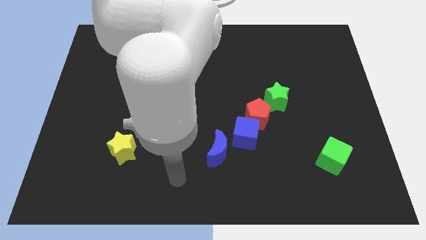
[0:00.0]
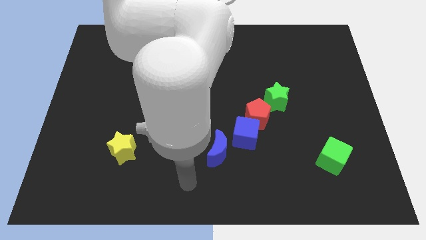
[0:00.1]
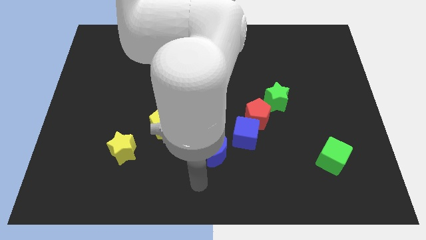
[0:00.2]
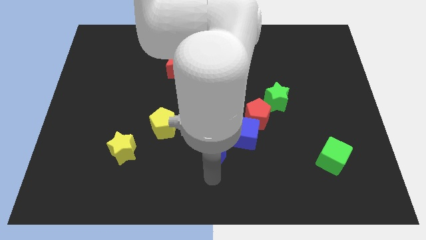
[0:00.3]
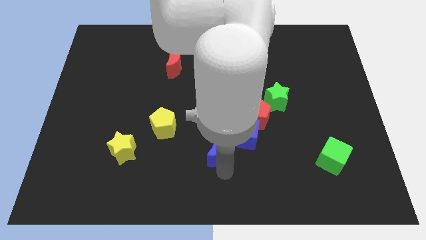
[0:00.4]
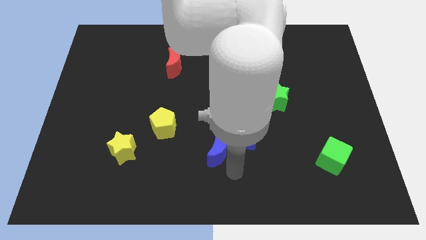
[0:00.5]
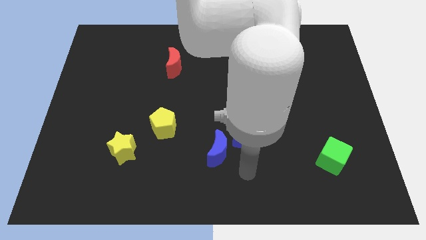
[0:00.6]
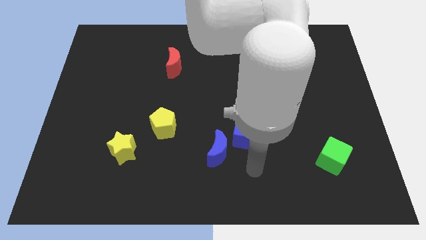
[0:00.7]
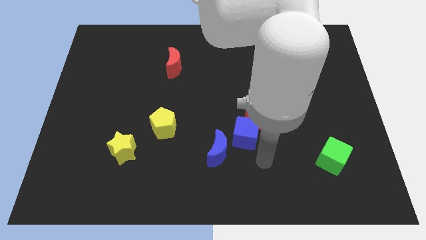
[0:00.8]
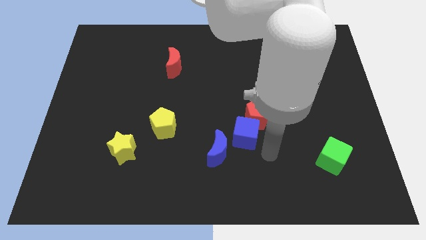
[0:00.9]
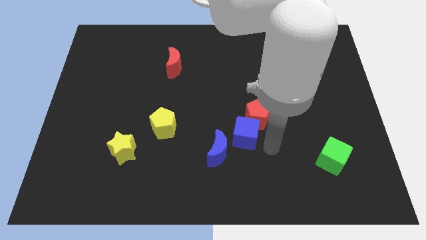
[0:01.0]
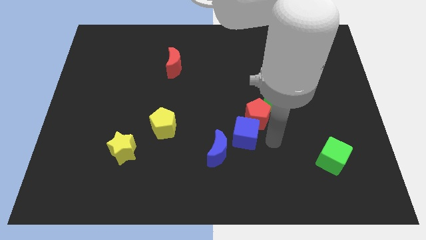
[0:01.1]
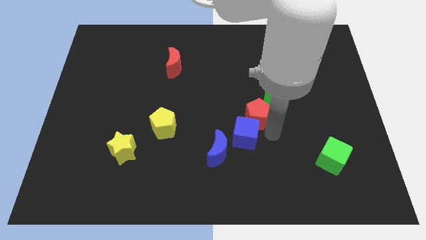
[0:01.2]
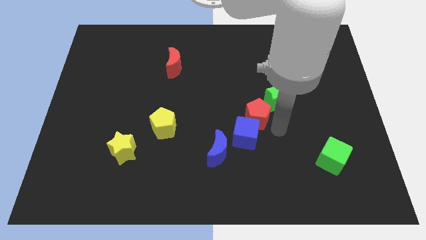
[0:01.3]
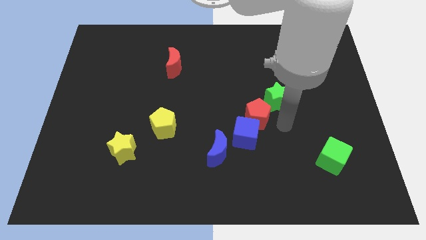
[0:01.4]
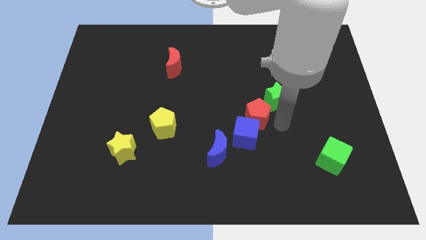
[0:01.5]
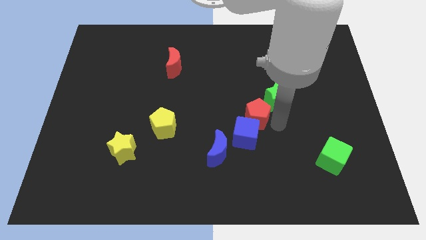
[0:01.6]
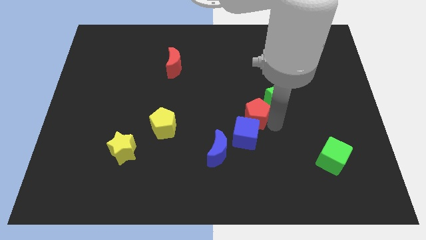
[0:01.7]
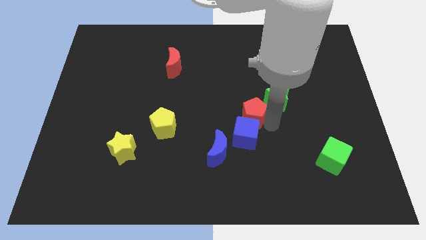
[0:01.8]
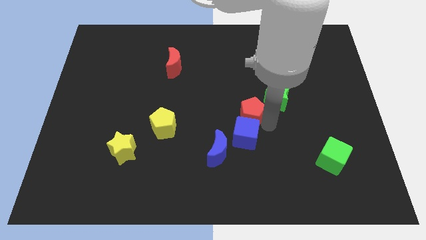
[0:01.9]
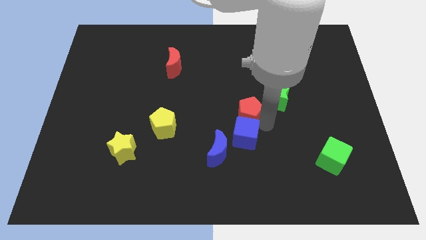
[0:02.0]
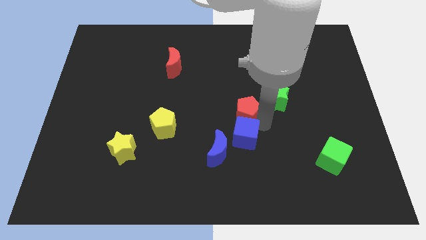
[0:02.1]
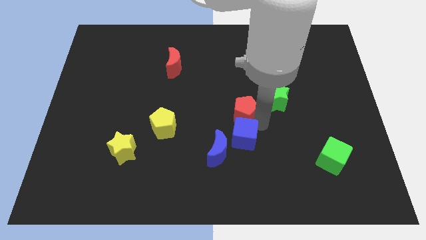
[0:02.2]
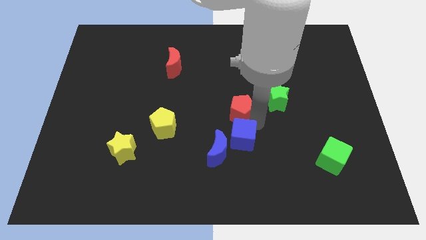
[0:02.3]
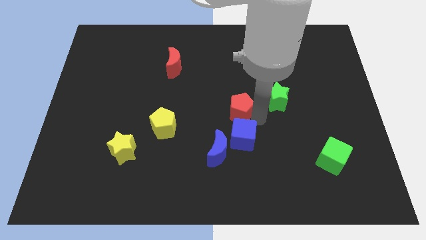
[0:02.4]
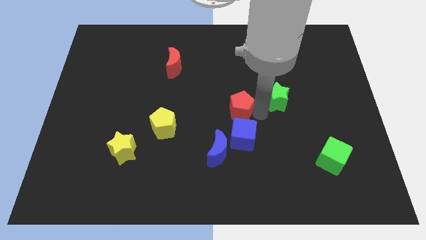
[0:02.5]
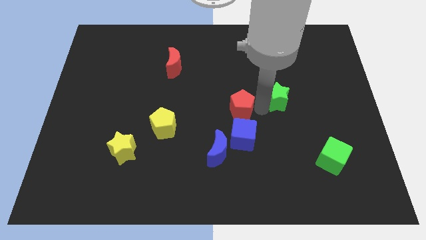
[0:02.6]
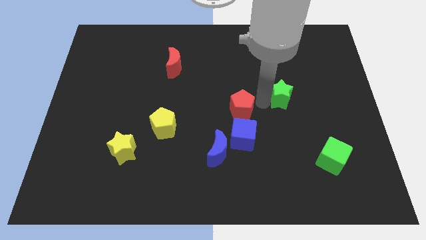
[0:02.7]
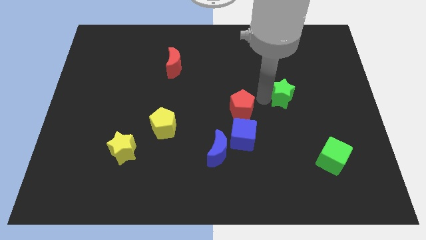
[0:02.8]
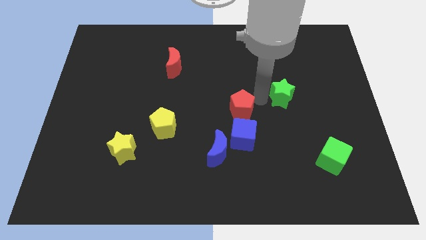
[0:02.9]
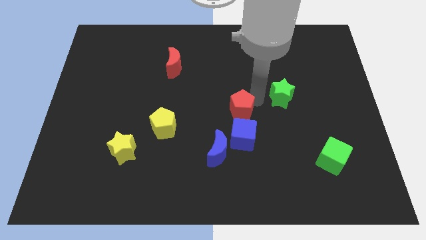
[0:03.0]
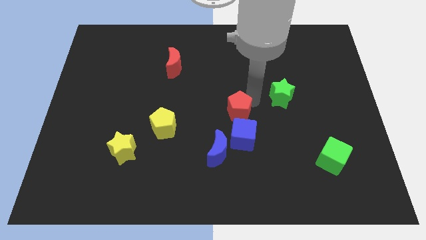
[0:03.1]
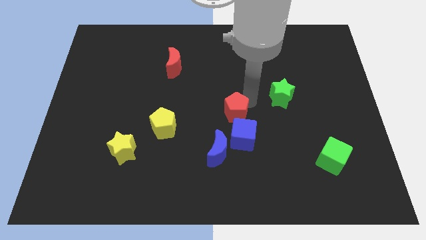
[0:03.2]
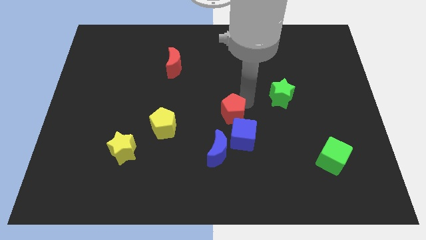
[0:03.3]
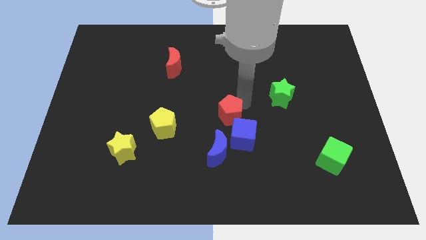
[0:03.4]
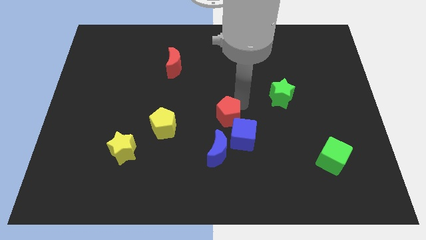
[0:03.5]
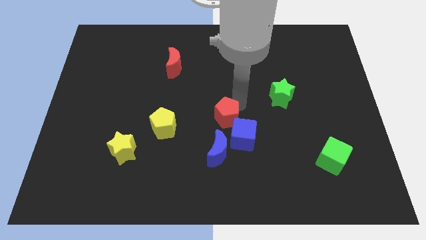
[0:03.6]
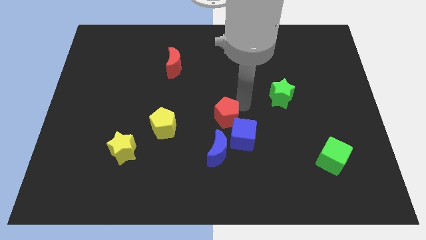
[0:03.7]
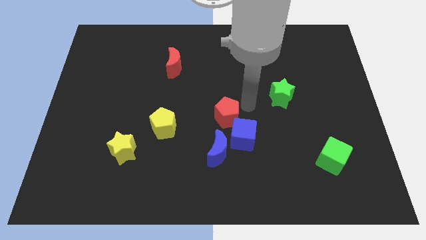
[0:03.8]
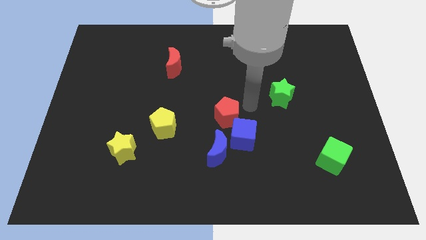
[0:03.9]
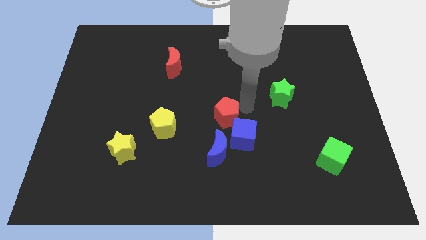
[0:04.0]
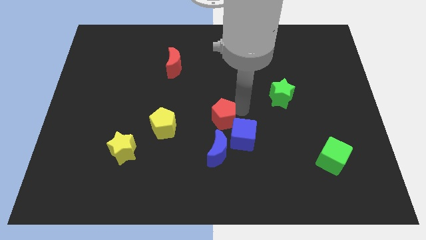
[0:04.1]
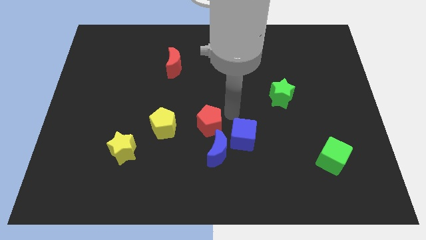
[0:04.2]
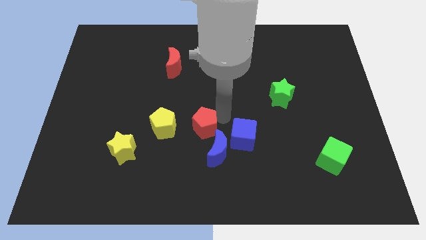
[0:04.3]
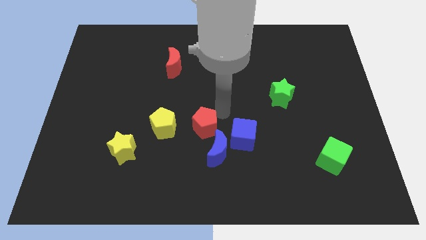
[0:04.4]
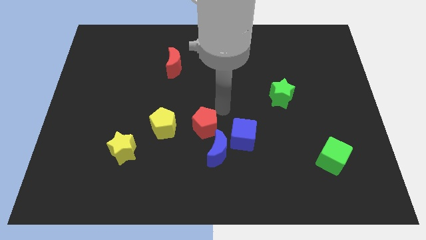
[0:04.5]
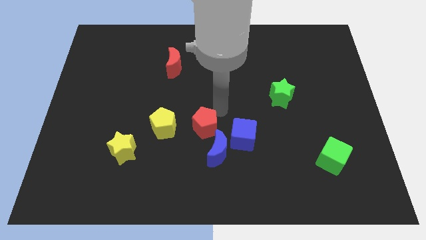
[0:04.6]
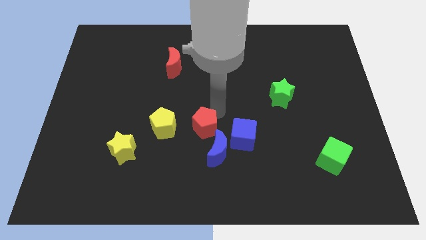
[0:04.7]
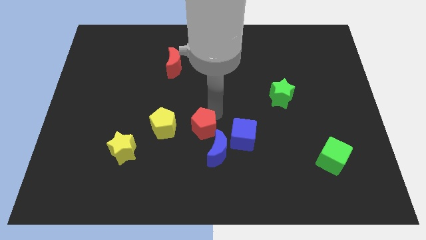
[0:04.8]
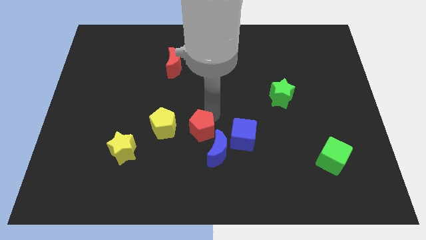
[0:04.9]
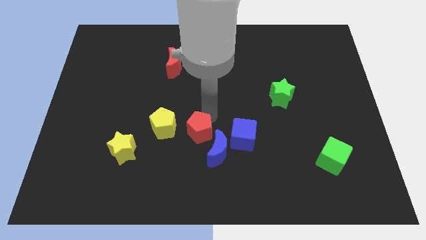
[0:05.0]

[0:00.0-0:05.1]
slide the red pentagon diagonally down and to the right of the yellow pentagon

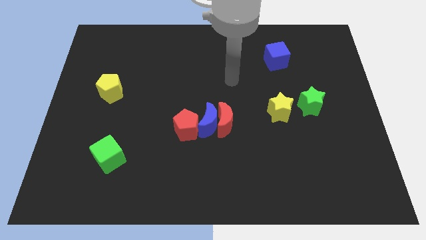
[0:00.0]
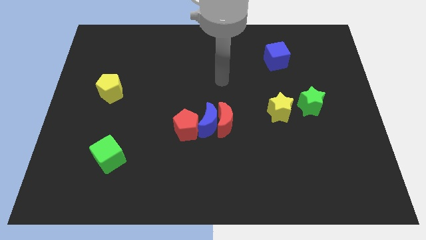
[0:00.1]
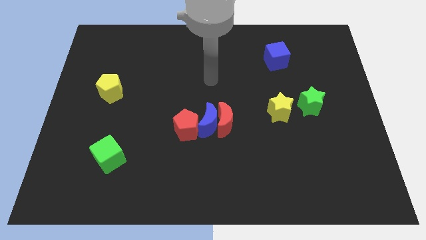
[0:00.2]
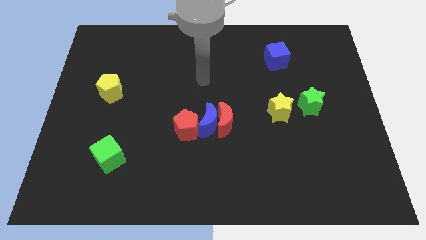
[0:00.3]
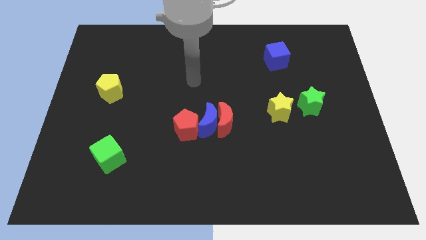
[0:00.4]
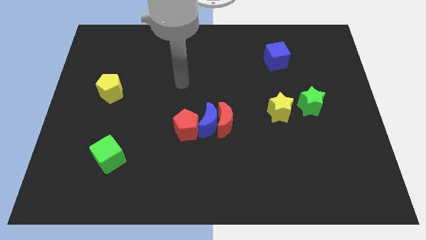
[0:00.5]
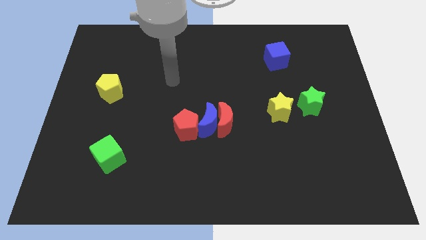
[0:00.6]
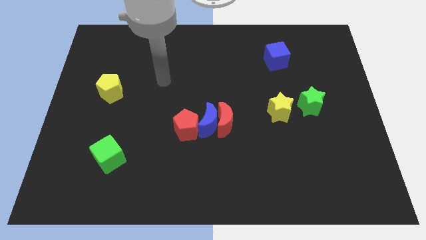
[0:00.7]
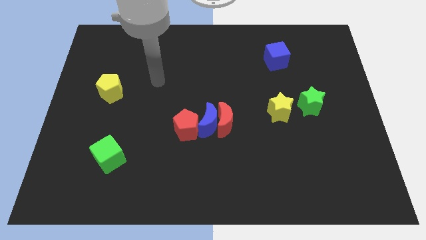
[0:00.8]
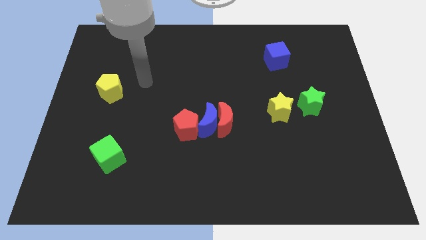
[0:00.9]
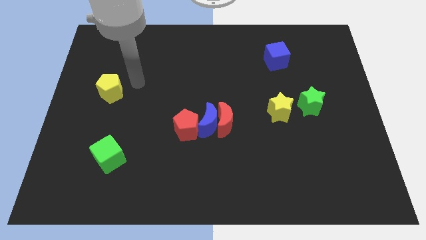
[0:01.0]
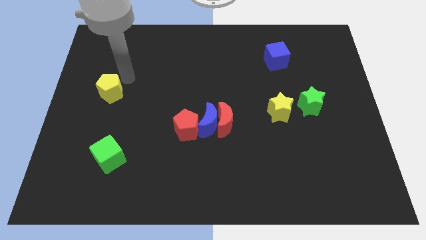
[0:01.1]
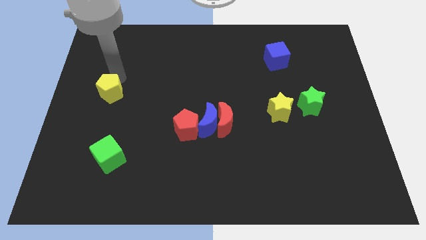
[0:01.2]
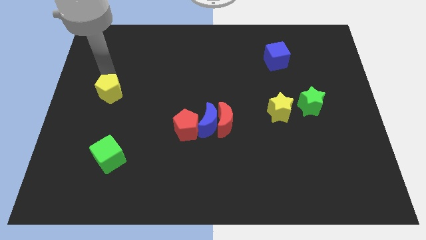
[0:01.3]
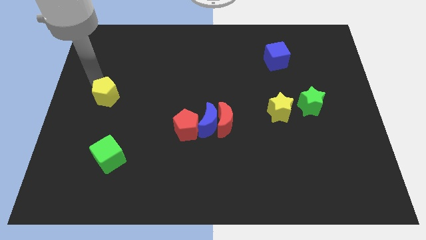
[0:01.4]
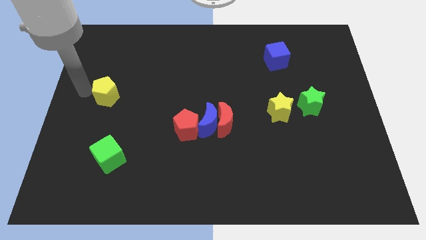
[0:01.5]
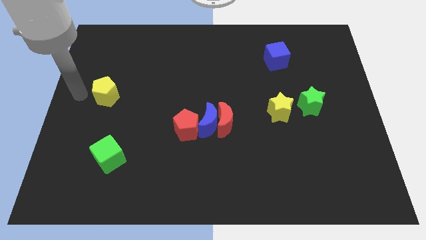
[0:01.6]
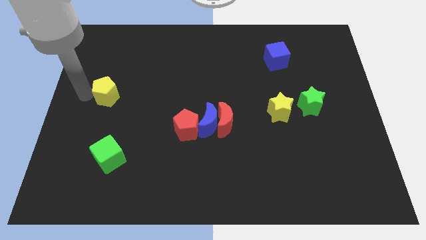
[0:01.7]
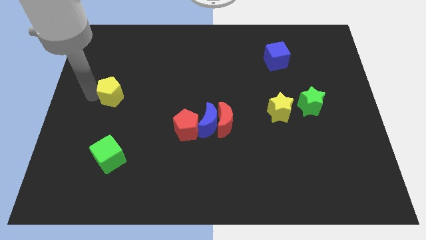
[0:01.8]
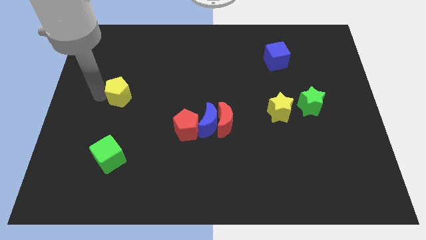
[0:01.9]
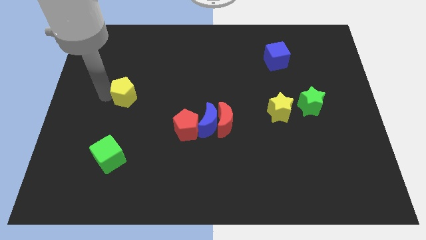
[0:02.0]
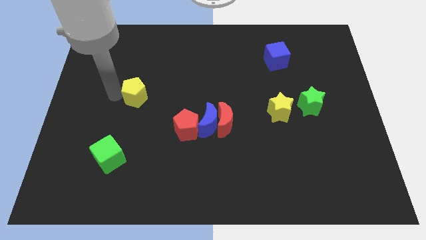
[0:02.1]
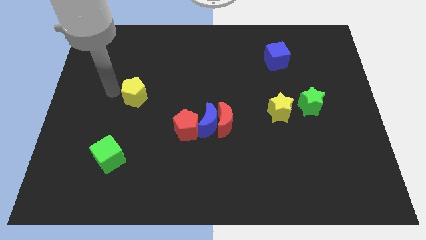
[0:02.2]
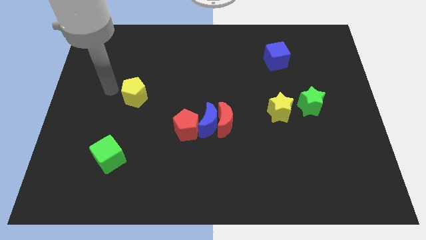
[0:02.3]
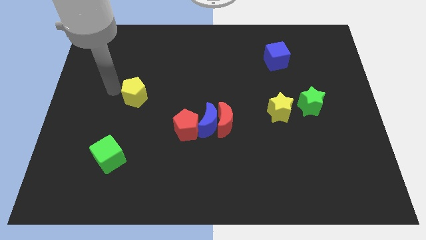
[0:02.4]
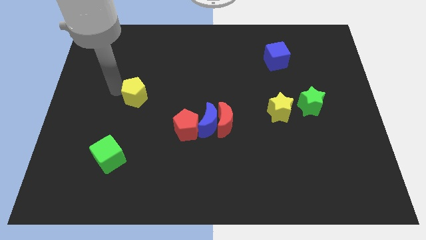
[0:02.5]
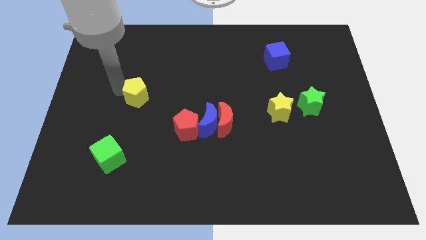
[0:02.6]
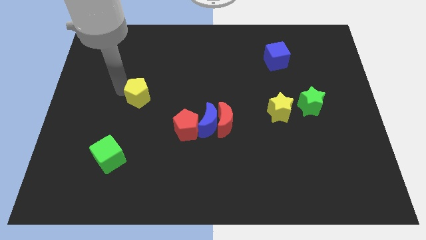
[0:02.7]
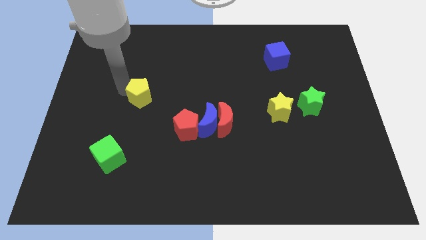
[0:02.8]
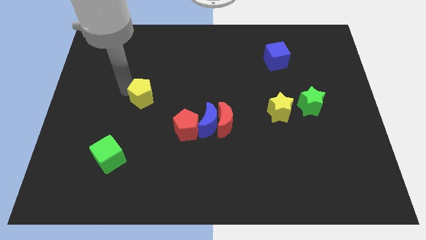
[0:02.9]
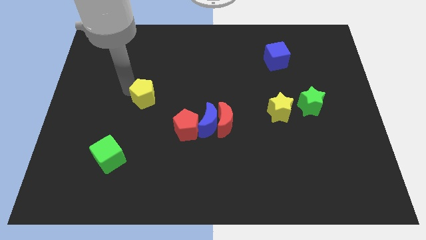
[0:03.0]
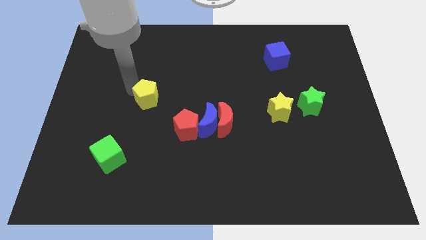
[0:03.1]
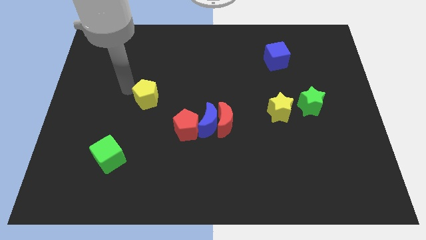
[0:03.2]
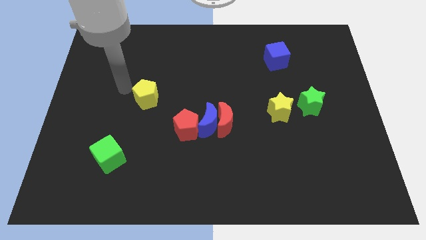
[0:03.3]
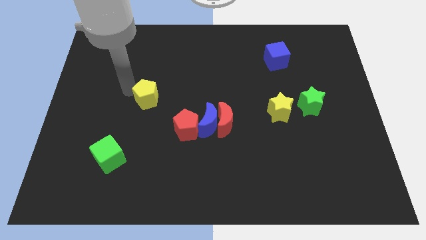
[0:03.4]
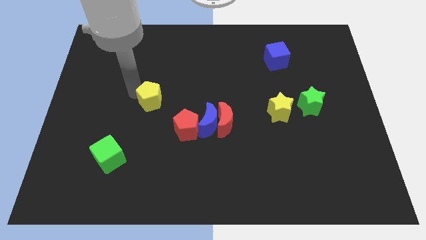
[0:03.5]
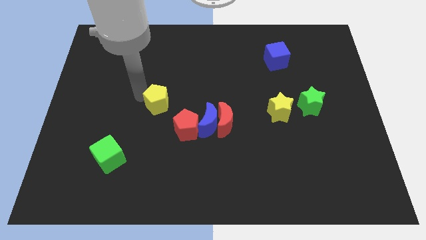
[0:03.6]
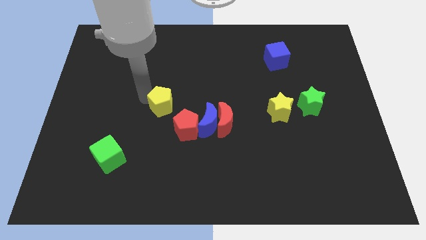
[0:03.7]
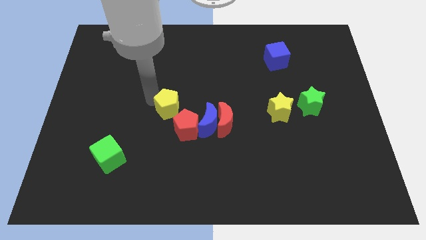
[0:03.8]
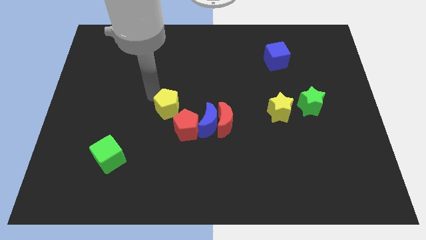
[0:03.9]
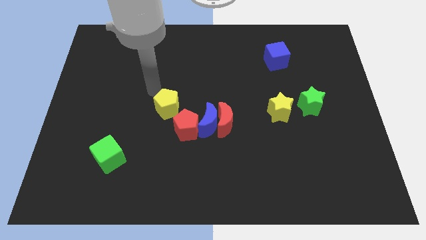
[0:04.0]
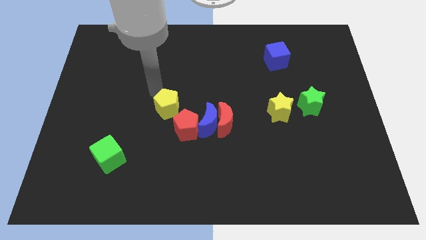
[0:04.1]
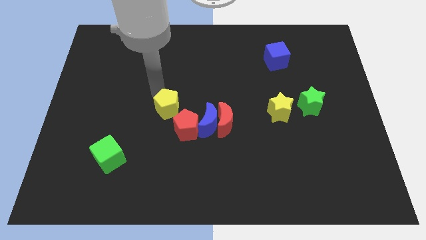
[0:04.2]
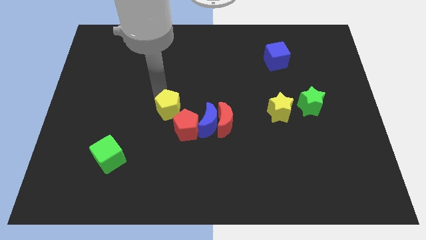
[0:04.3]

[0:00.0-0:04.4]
put the yellow pentagon left of the red moon
